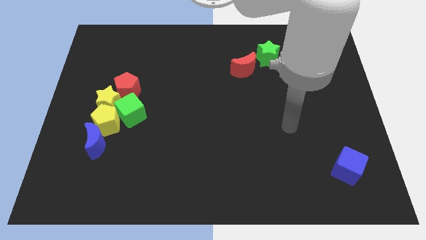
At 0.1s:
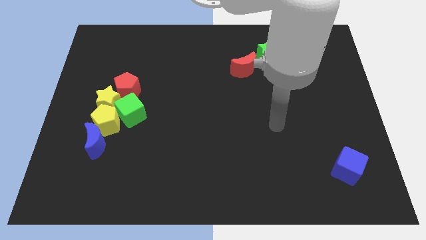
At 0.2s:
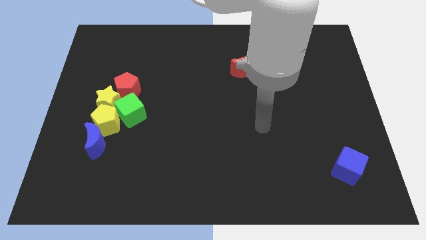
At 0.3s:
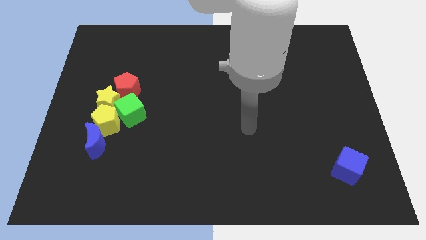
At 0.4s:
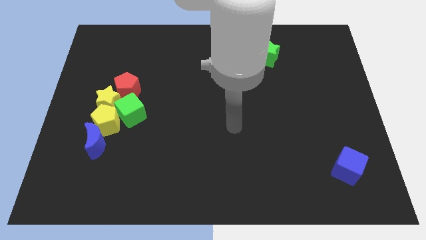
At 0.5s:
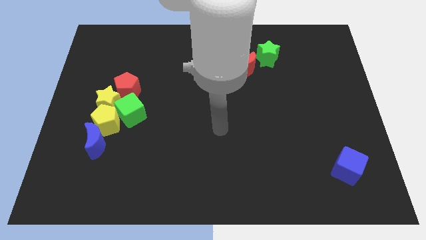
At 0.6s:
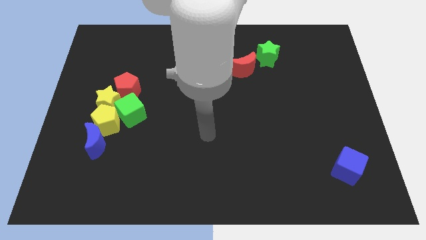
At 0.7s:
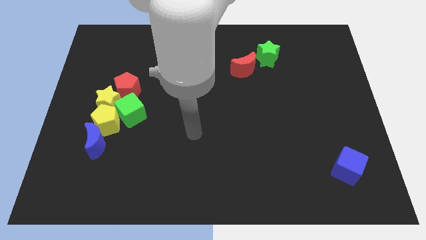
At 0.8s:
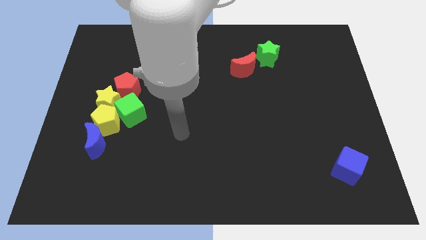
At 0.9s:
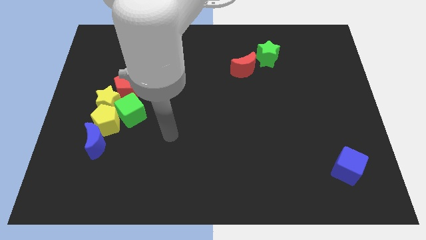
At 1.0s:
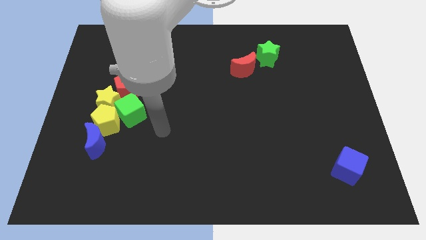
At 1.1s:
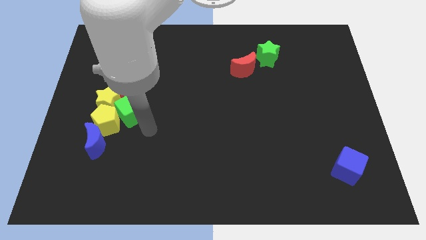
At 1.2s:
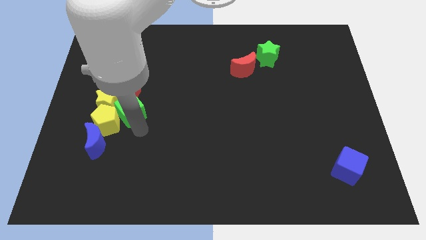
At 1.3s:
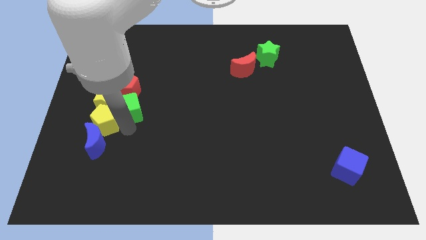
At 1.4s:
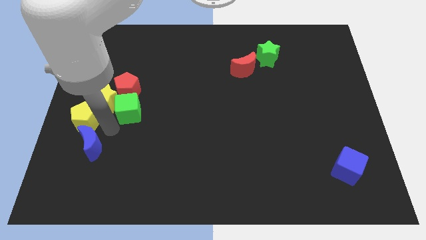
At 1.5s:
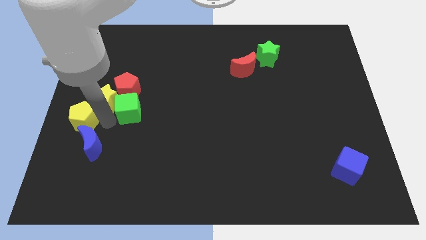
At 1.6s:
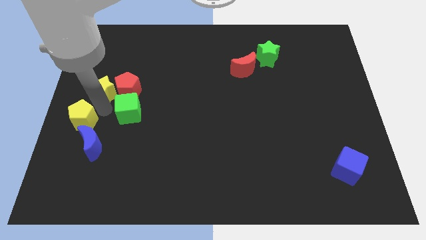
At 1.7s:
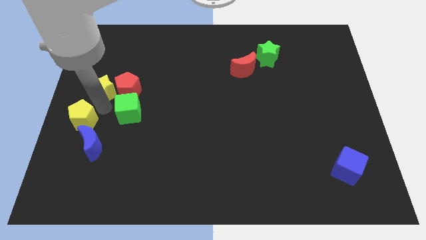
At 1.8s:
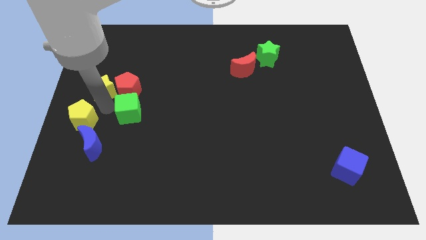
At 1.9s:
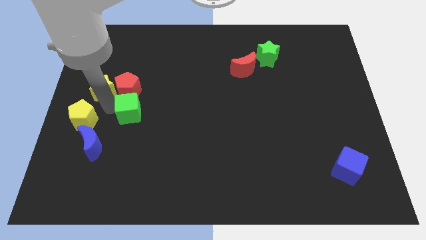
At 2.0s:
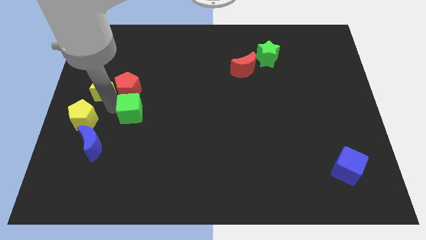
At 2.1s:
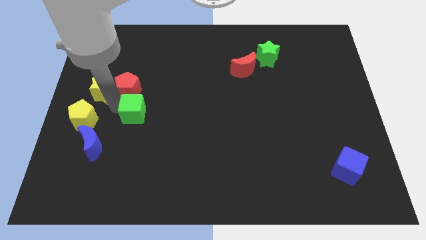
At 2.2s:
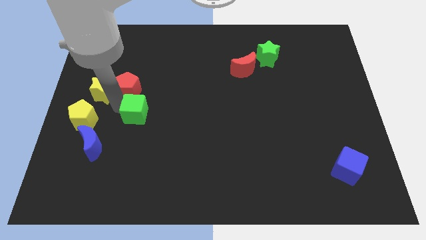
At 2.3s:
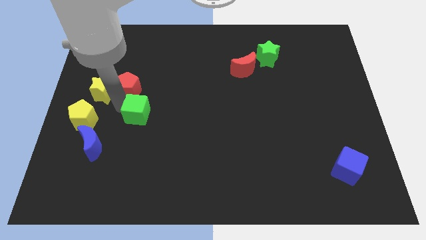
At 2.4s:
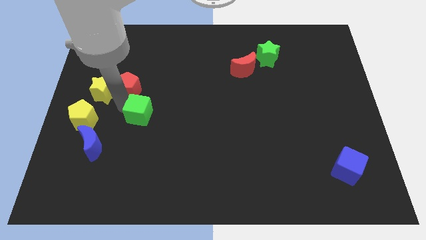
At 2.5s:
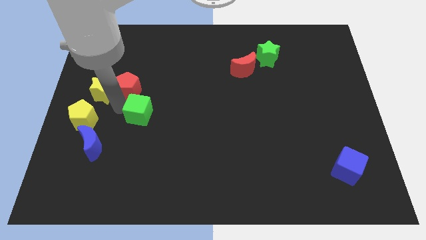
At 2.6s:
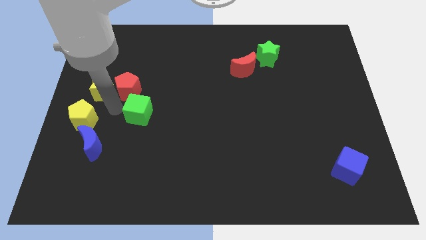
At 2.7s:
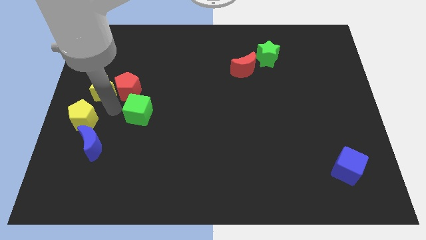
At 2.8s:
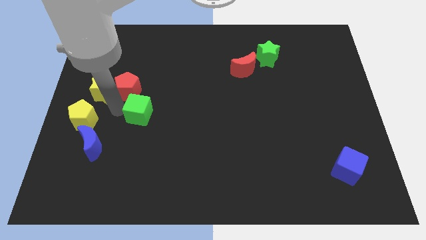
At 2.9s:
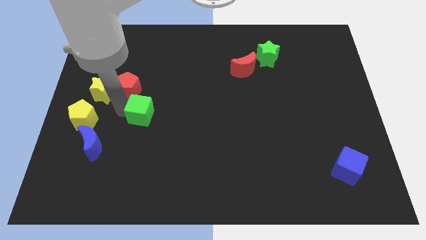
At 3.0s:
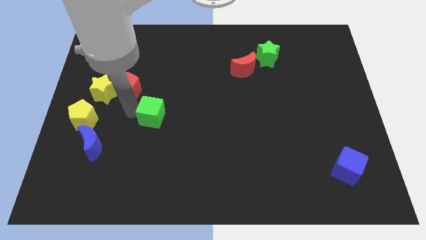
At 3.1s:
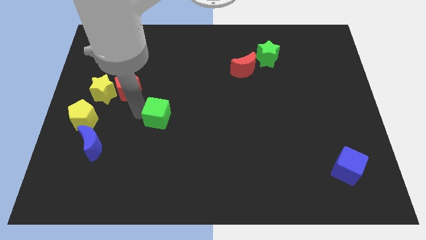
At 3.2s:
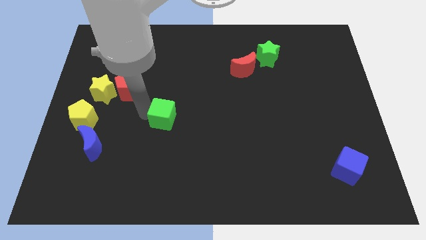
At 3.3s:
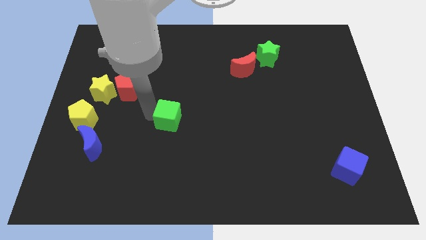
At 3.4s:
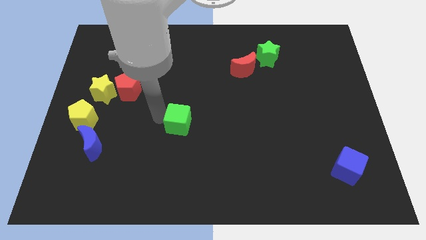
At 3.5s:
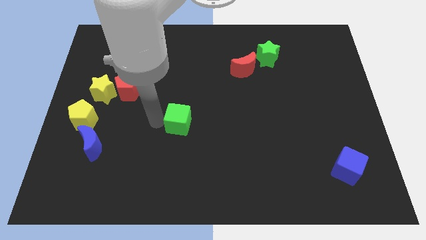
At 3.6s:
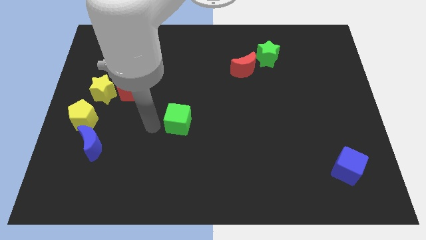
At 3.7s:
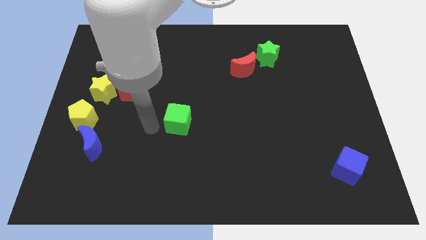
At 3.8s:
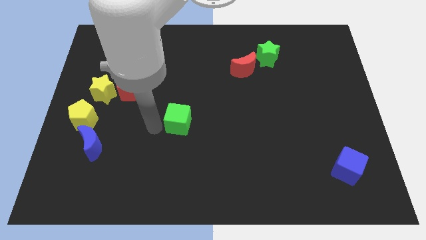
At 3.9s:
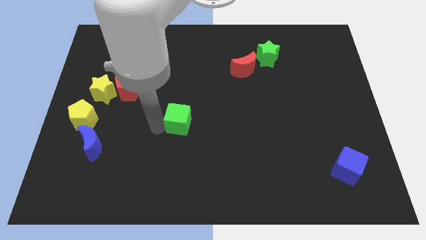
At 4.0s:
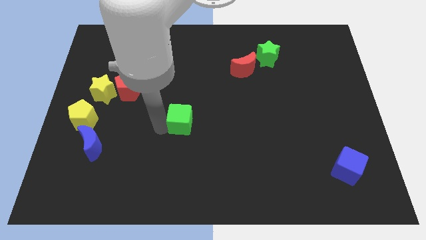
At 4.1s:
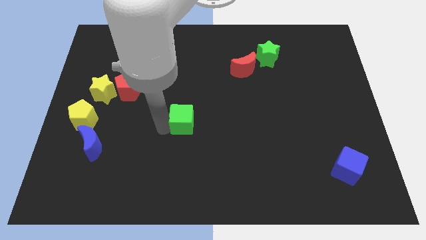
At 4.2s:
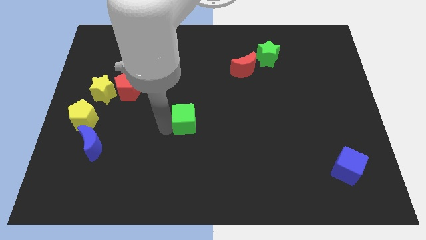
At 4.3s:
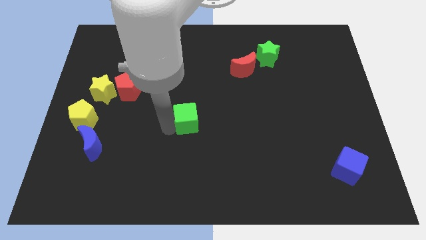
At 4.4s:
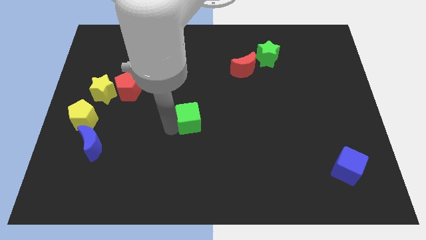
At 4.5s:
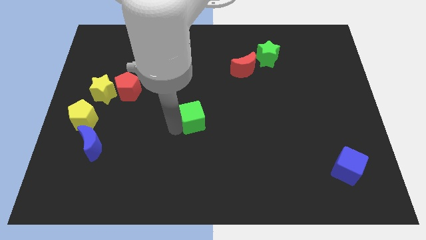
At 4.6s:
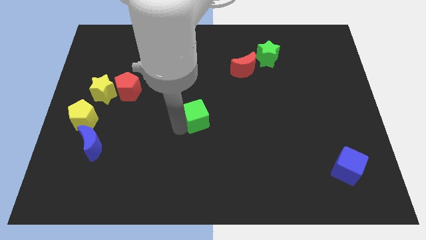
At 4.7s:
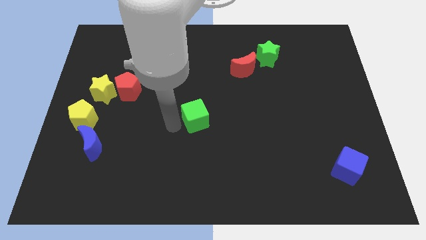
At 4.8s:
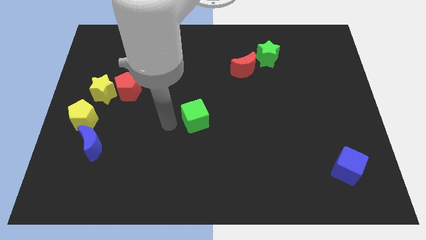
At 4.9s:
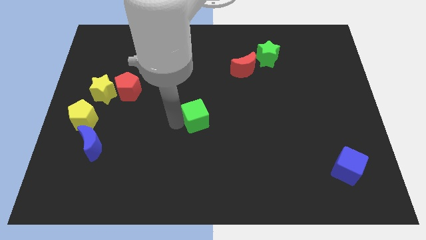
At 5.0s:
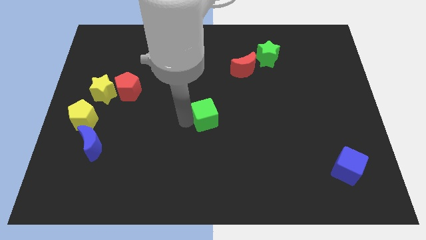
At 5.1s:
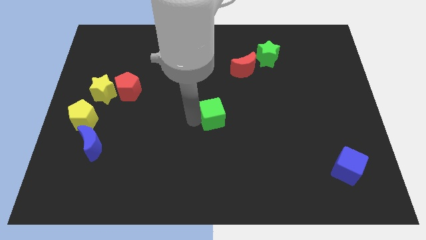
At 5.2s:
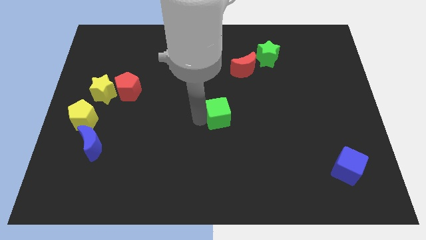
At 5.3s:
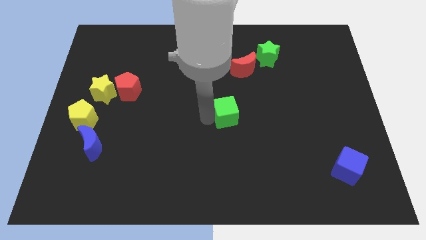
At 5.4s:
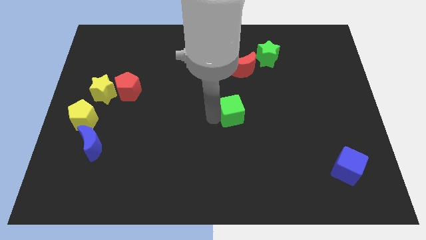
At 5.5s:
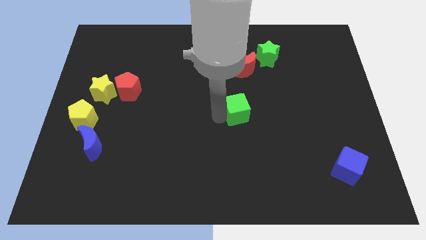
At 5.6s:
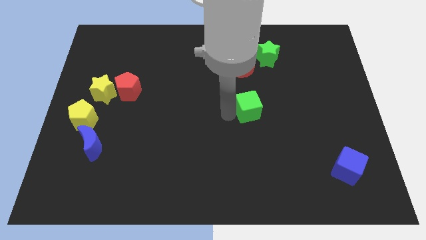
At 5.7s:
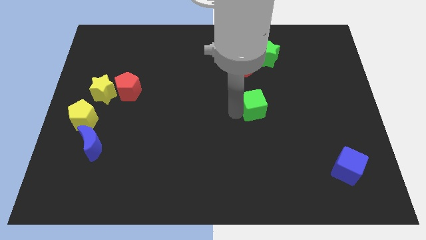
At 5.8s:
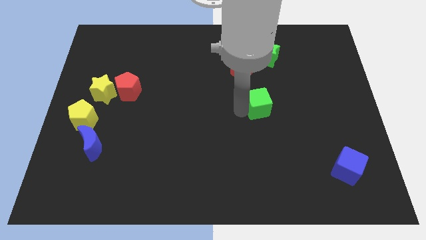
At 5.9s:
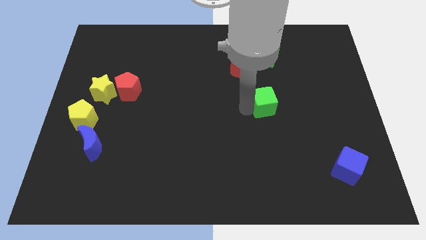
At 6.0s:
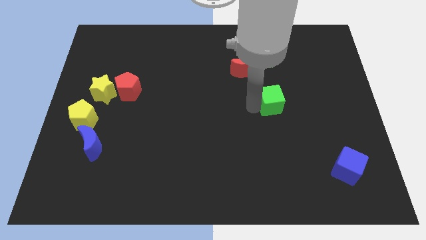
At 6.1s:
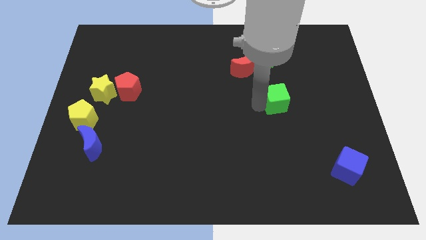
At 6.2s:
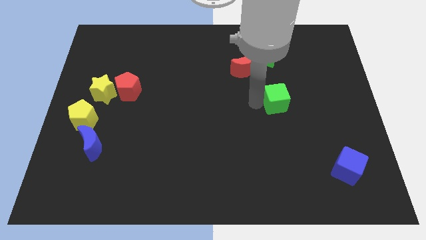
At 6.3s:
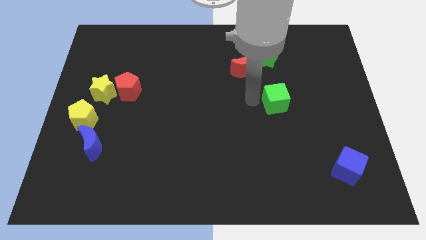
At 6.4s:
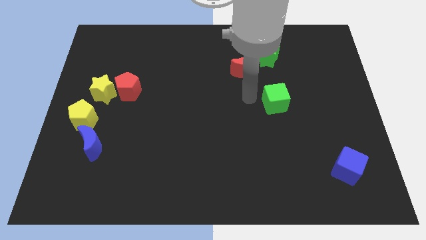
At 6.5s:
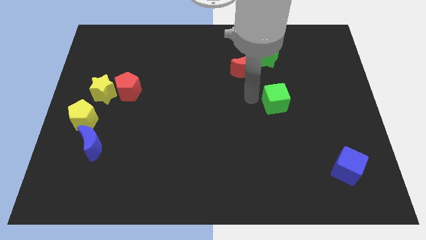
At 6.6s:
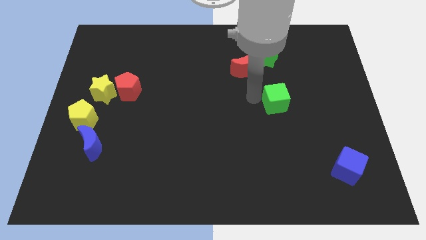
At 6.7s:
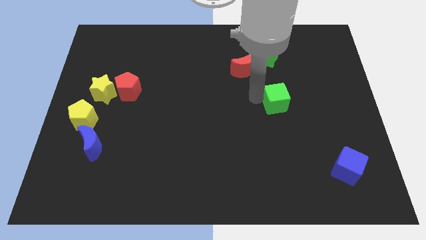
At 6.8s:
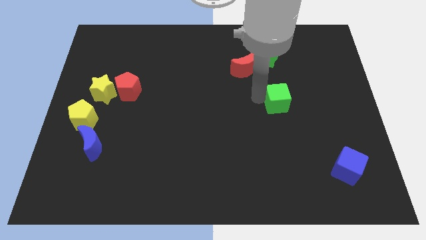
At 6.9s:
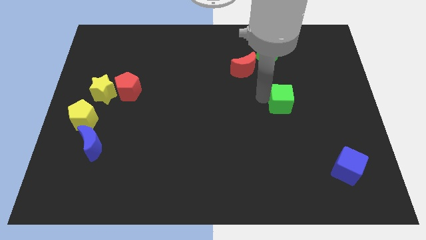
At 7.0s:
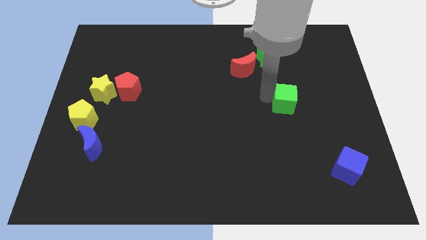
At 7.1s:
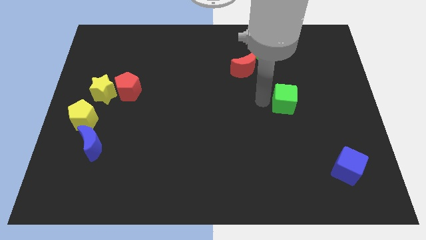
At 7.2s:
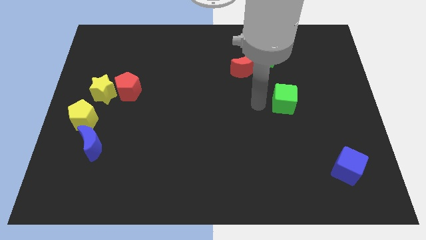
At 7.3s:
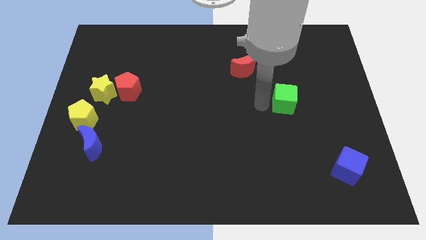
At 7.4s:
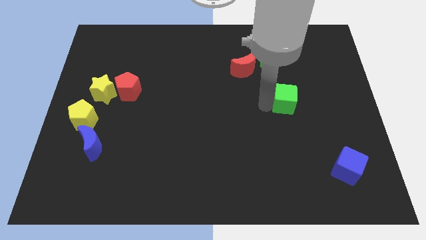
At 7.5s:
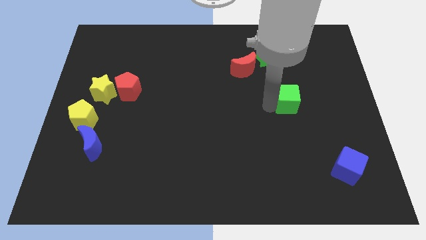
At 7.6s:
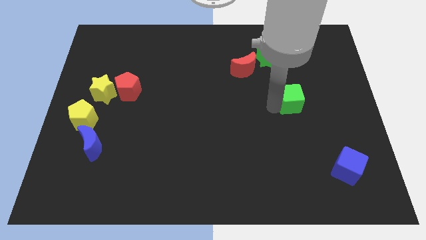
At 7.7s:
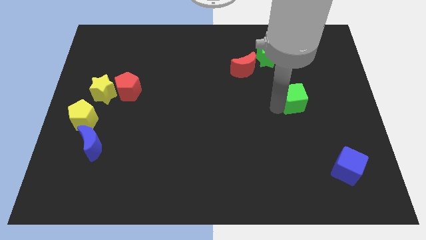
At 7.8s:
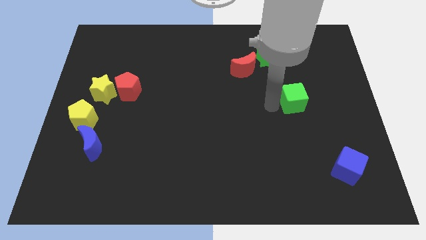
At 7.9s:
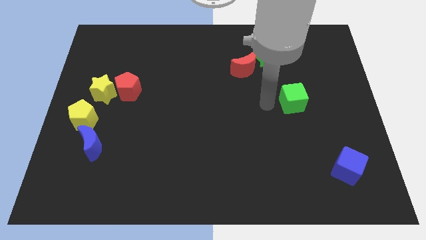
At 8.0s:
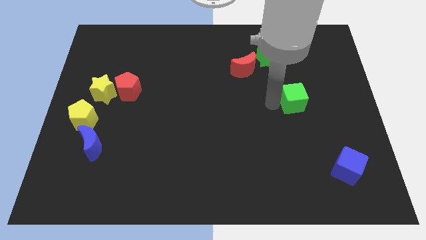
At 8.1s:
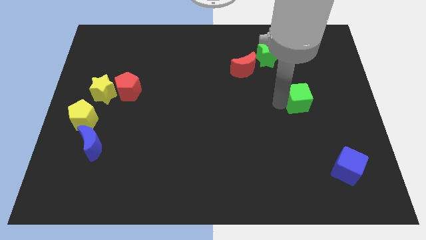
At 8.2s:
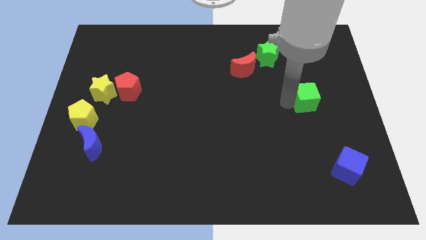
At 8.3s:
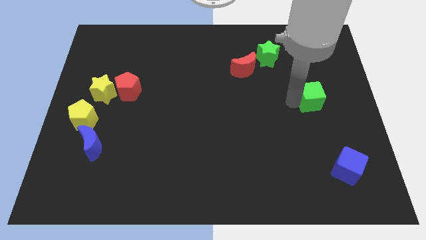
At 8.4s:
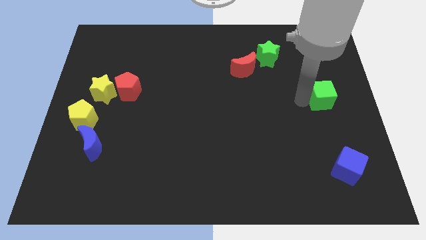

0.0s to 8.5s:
put the green cube to the right side of the board
